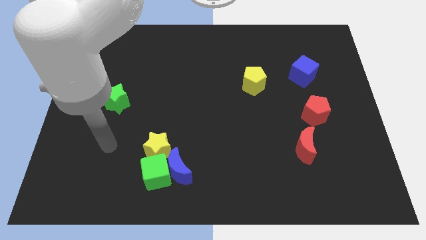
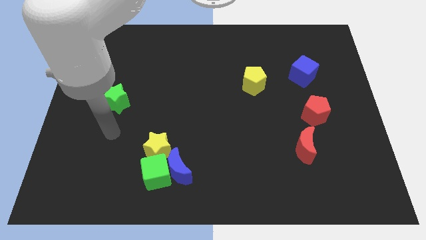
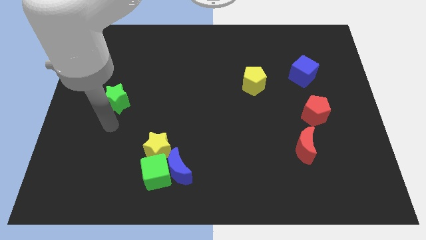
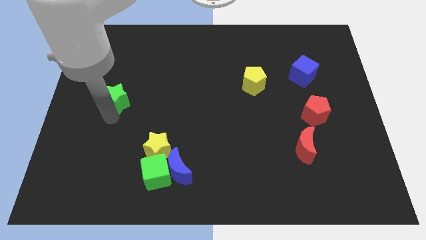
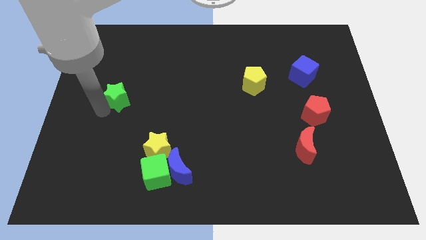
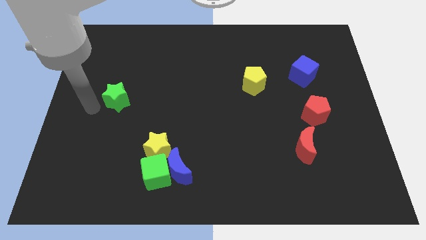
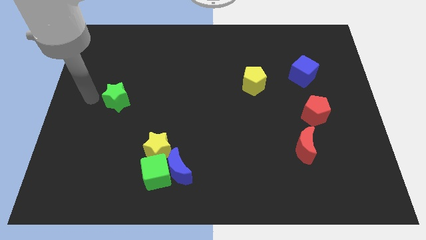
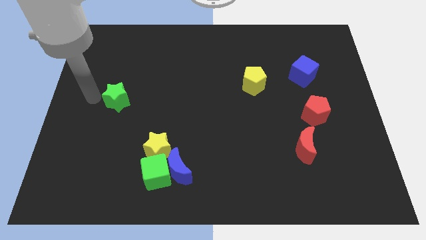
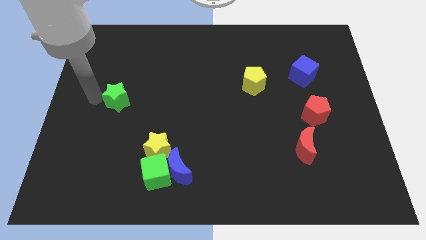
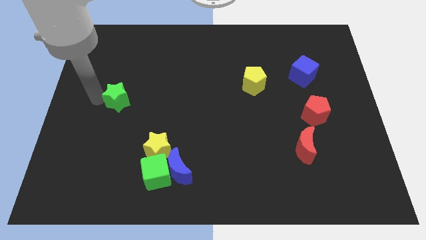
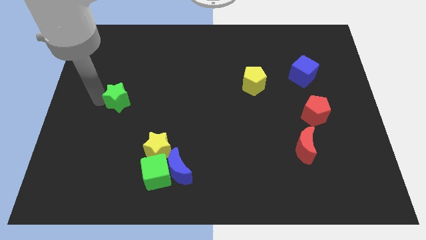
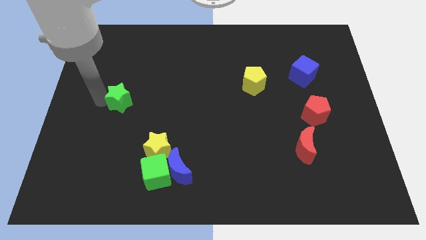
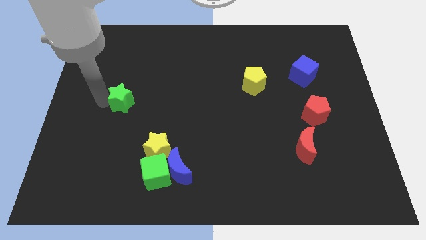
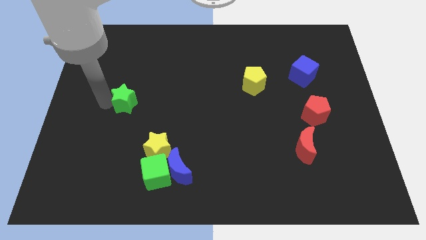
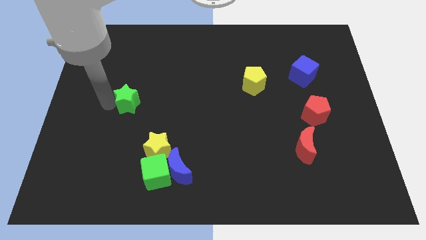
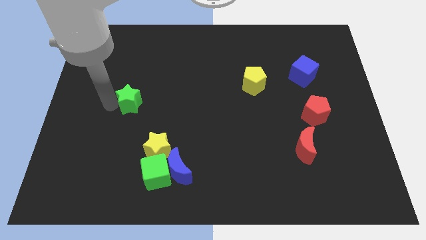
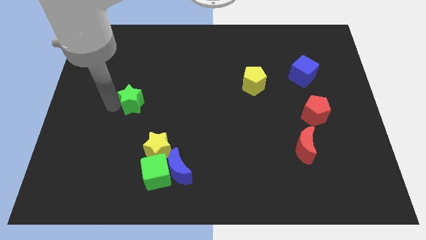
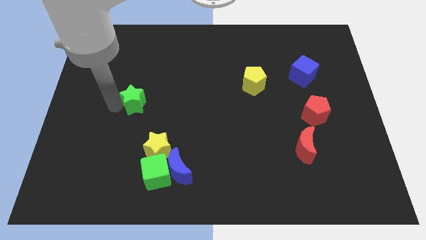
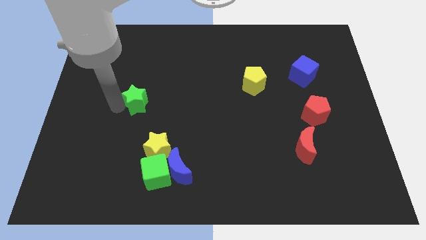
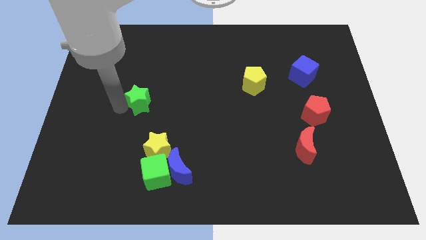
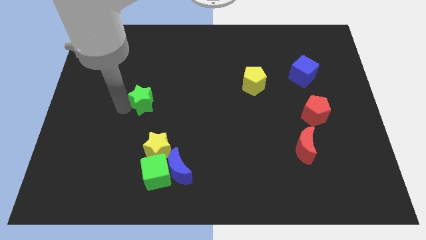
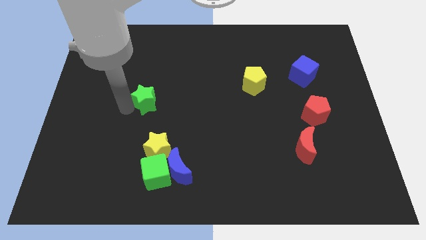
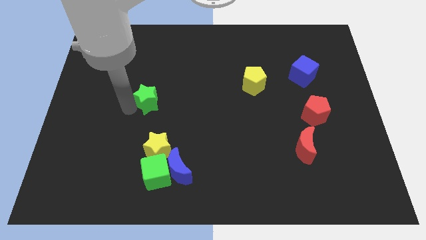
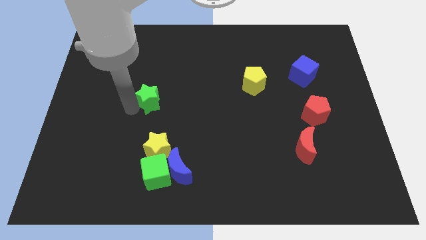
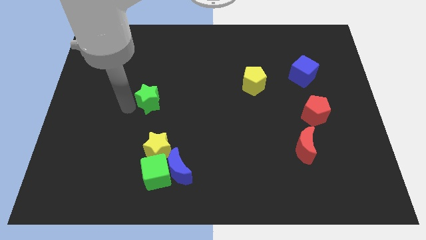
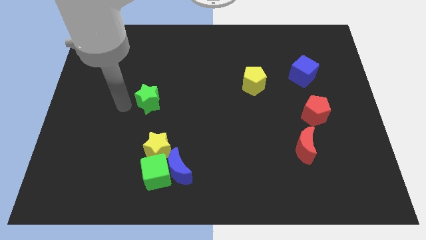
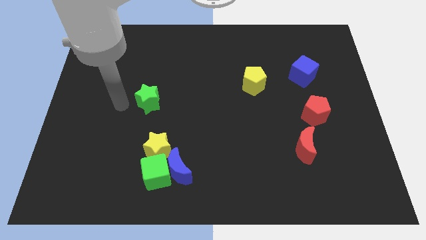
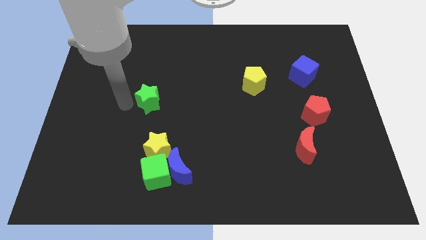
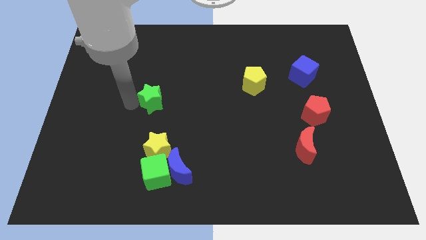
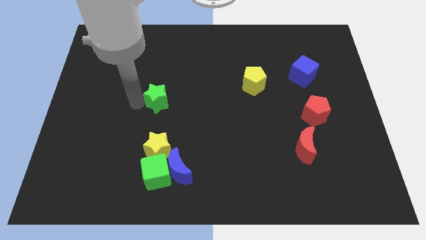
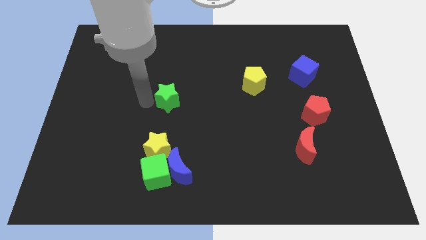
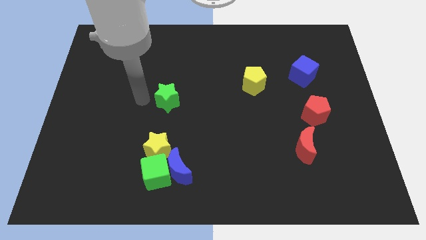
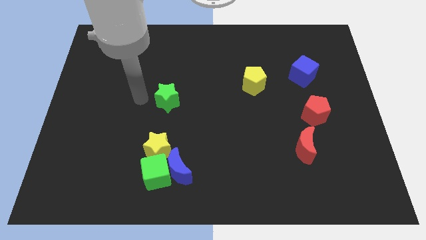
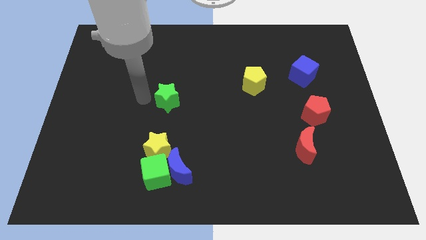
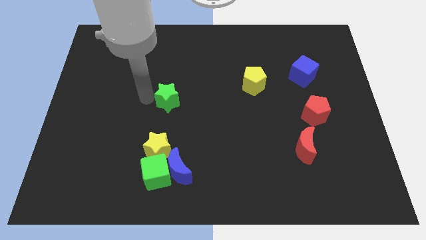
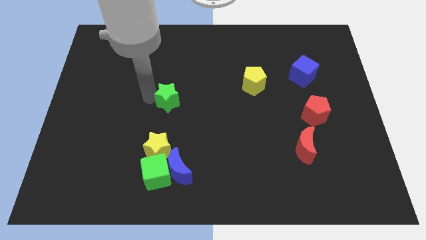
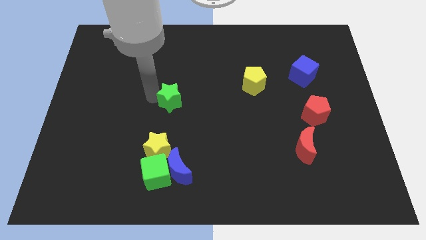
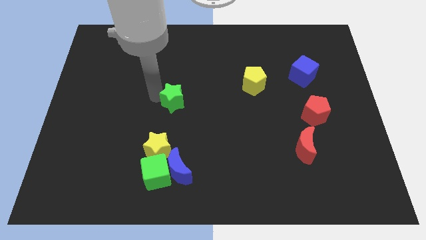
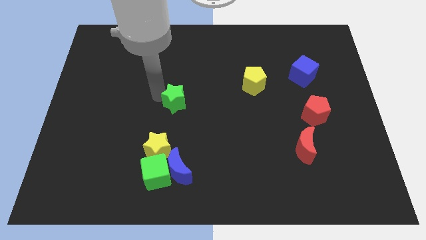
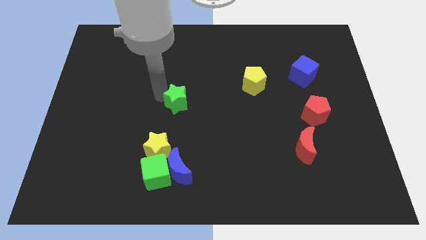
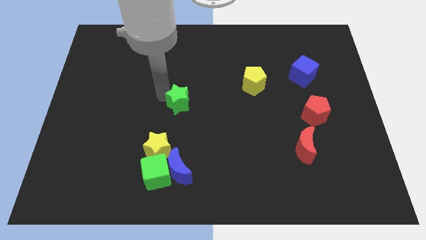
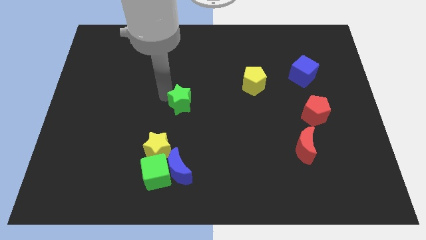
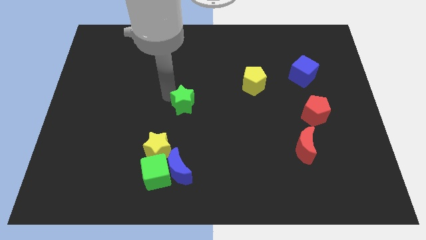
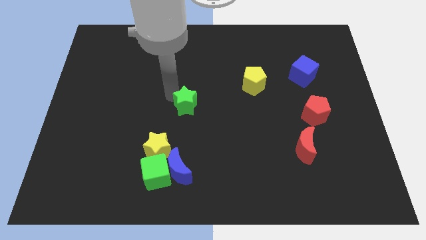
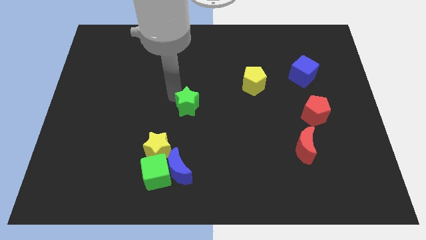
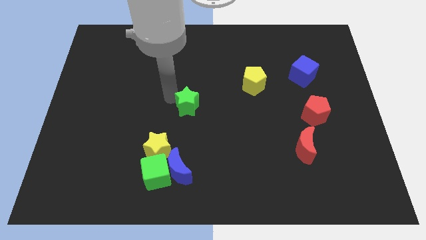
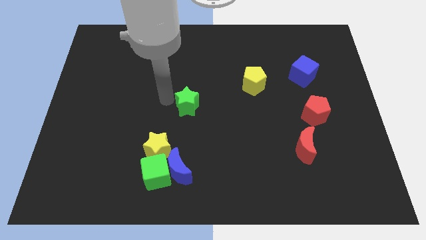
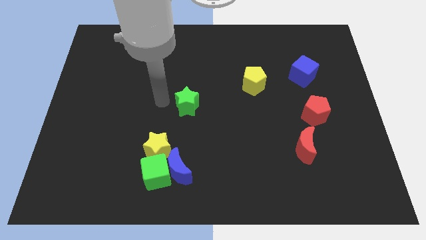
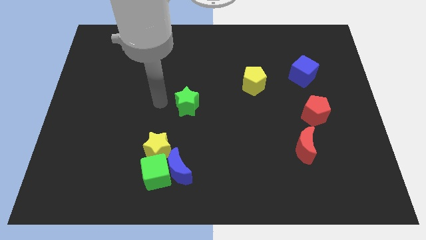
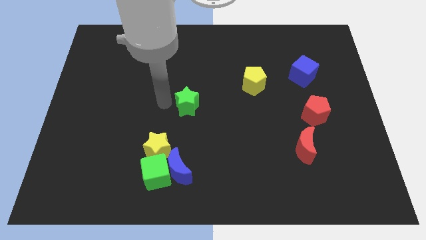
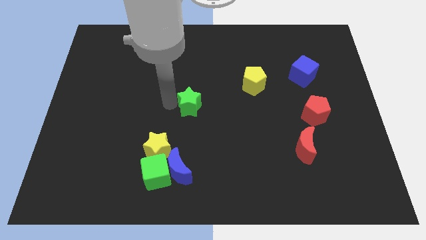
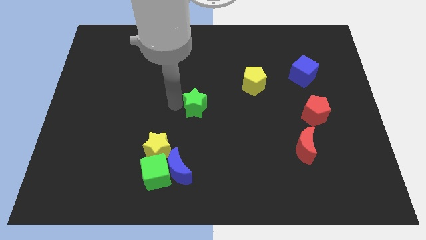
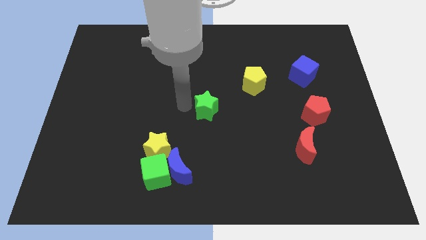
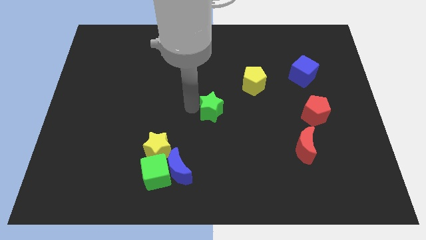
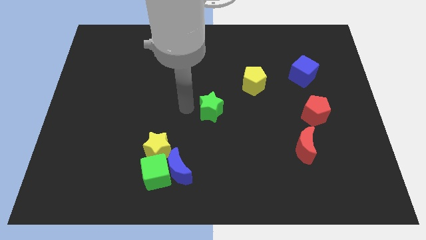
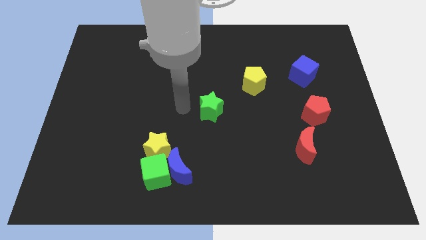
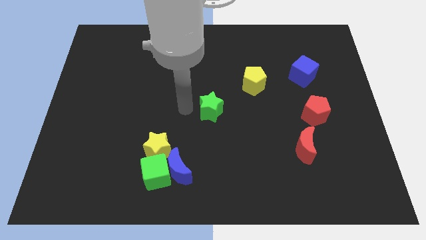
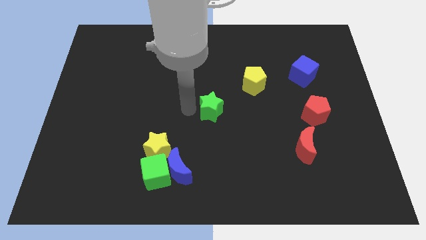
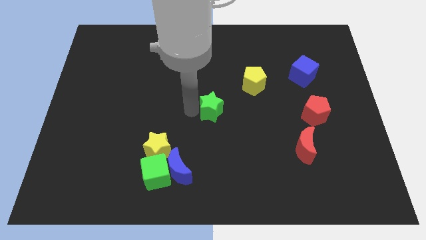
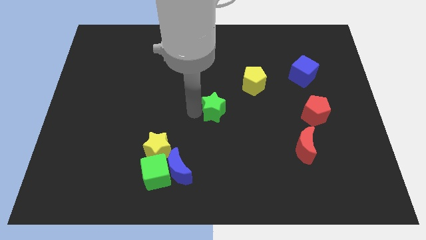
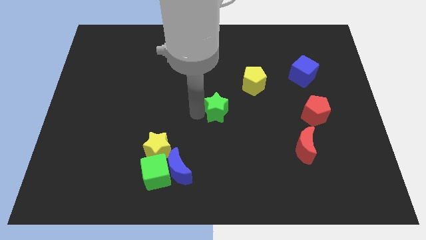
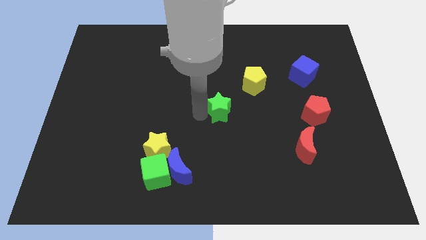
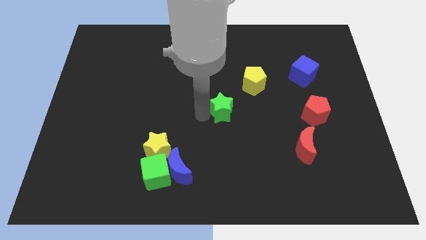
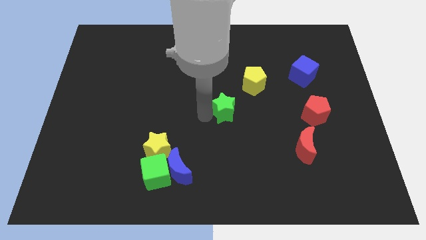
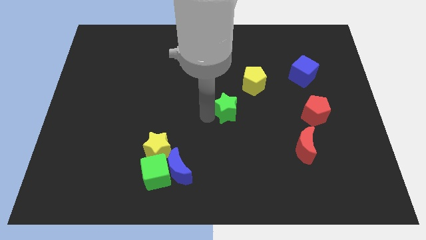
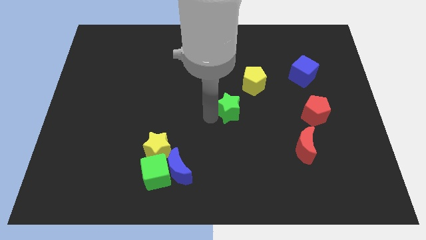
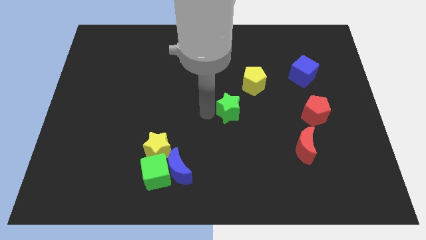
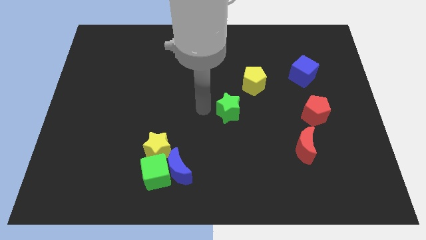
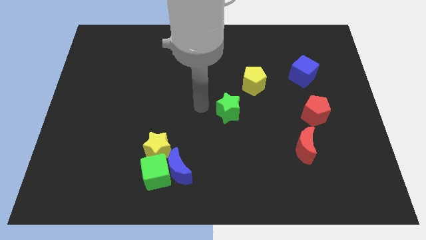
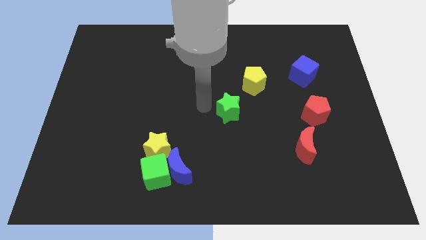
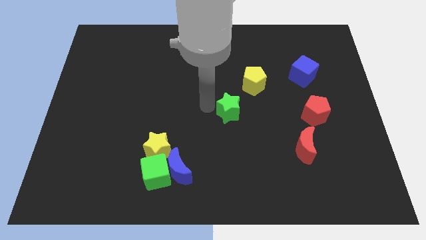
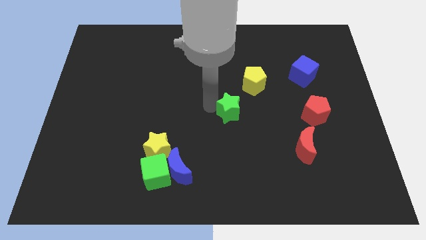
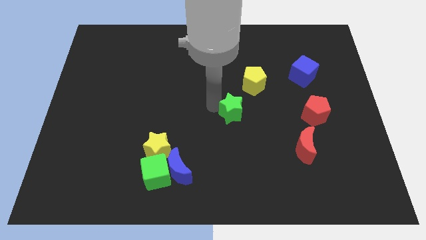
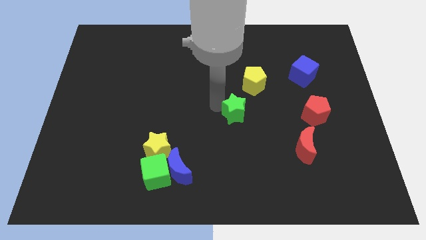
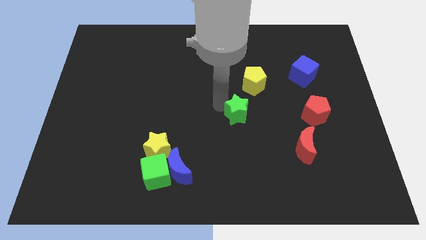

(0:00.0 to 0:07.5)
slide the green star to the bottom of the yellow pentagon

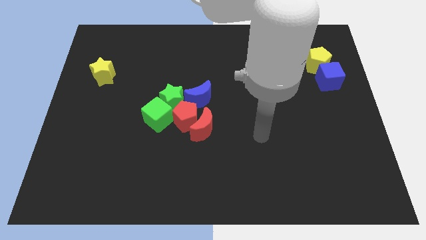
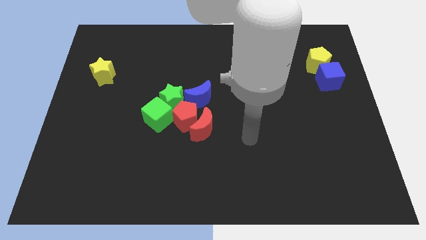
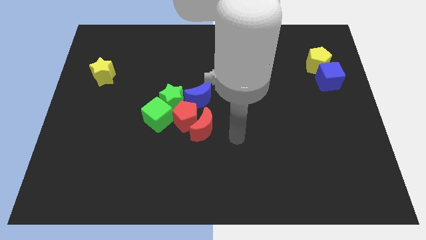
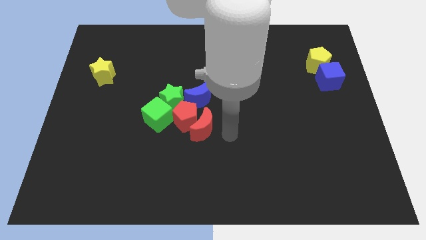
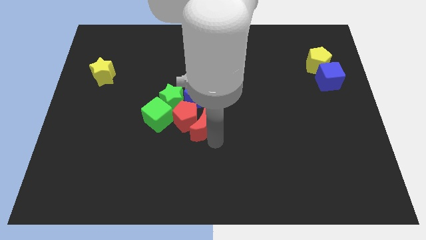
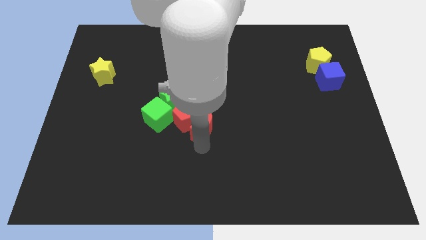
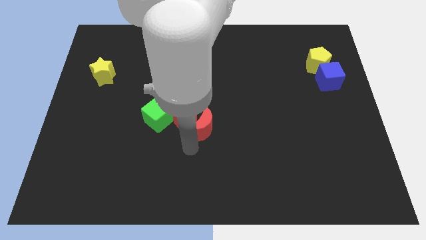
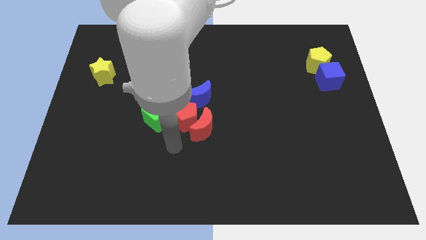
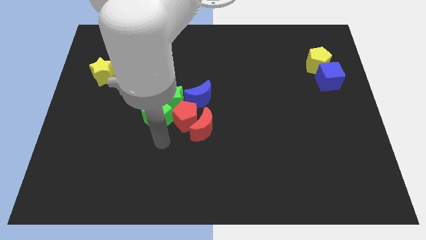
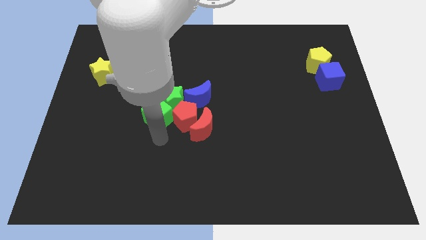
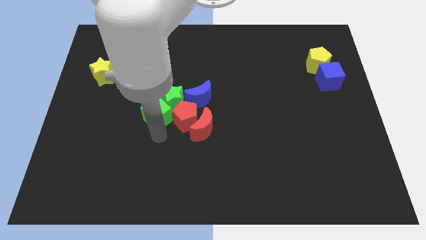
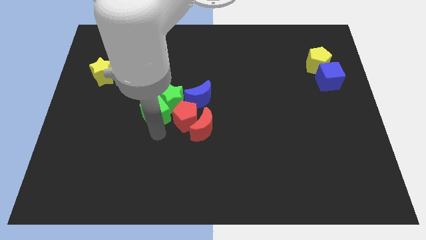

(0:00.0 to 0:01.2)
slide the green cube just left of the blue moon
